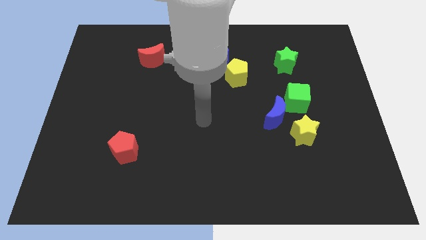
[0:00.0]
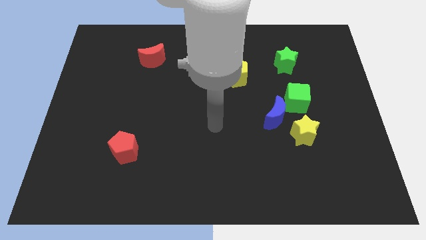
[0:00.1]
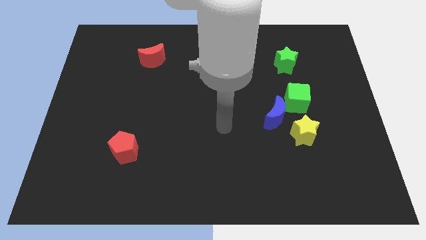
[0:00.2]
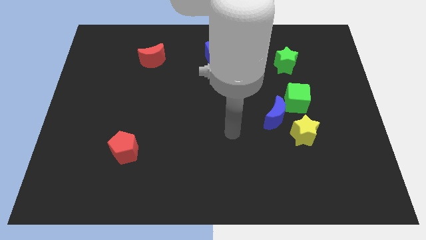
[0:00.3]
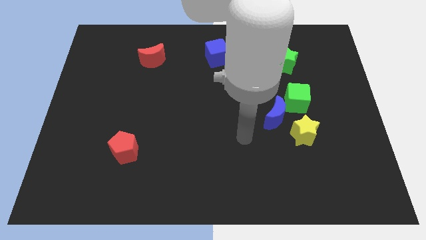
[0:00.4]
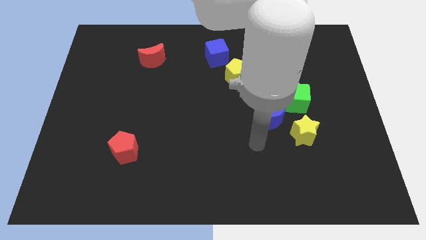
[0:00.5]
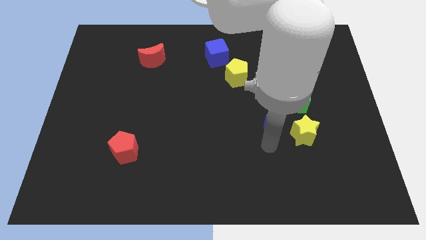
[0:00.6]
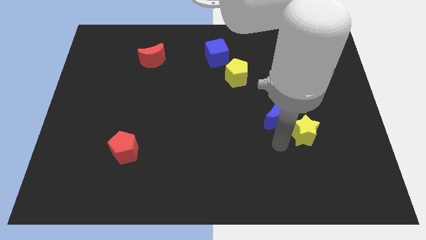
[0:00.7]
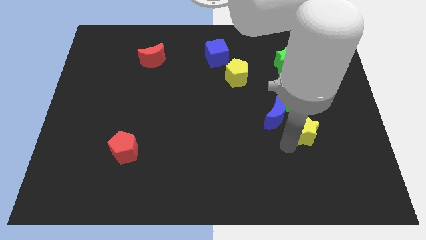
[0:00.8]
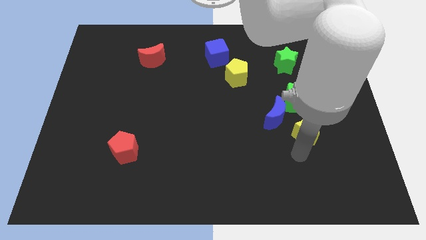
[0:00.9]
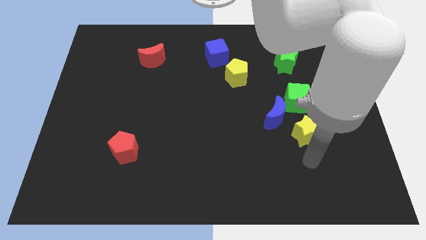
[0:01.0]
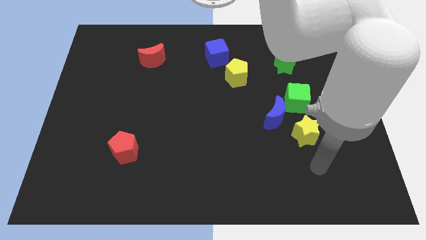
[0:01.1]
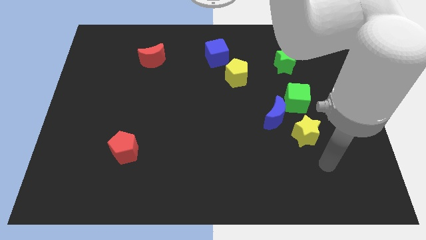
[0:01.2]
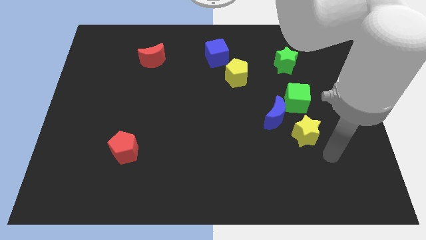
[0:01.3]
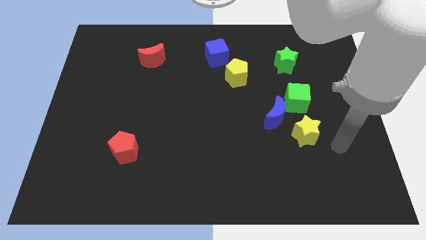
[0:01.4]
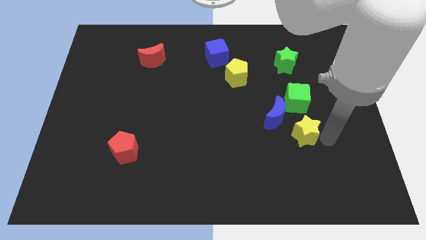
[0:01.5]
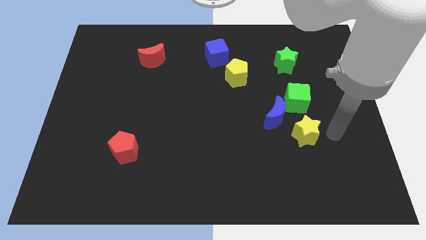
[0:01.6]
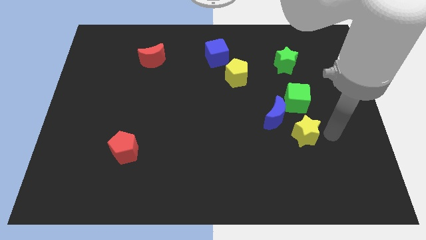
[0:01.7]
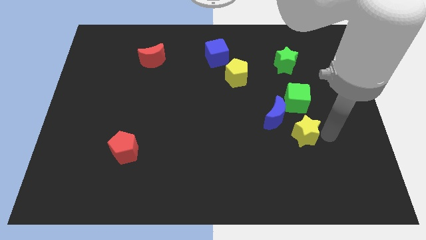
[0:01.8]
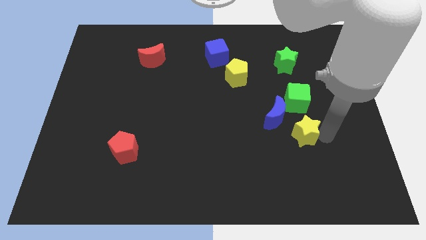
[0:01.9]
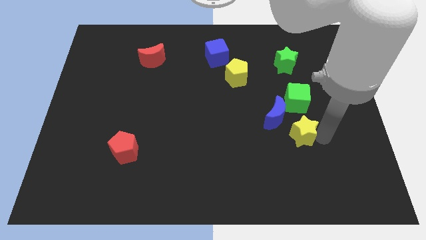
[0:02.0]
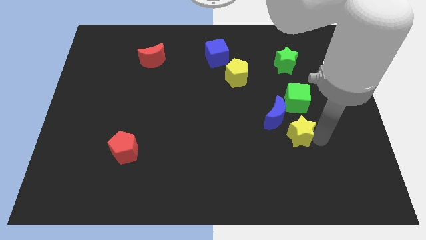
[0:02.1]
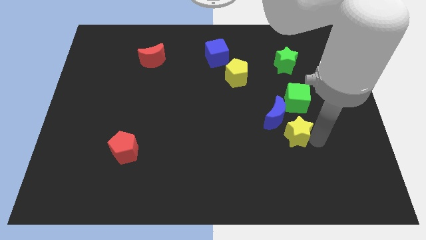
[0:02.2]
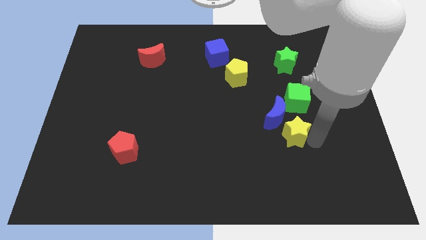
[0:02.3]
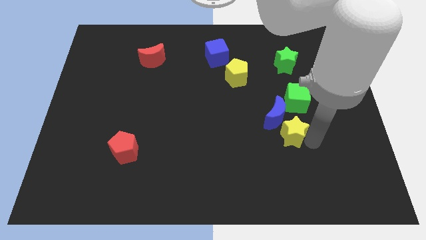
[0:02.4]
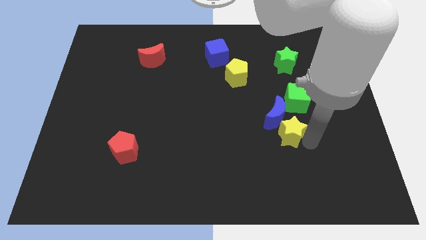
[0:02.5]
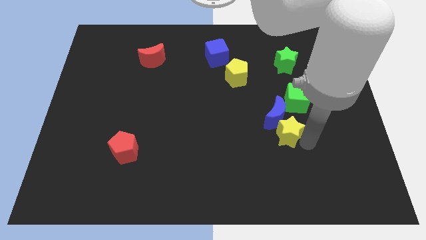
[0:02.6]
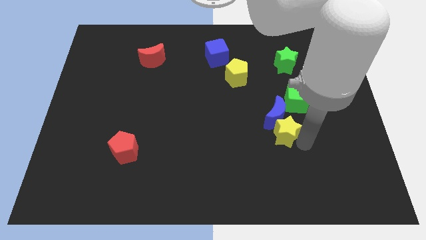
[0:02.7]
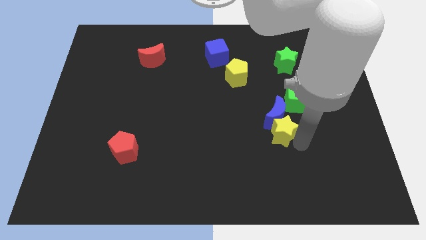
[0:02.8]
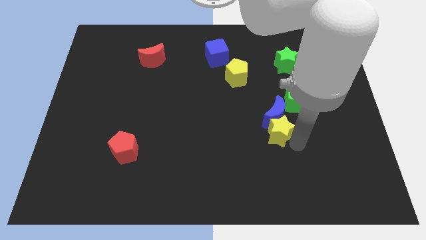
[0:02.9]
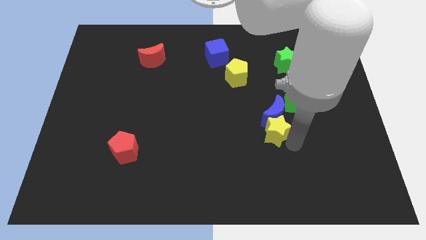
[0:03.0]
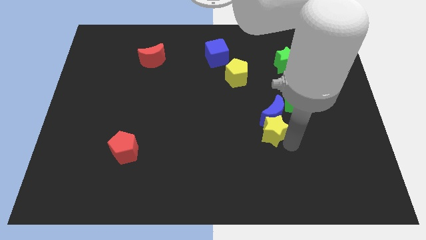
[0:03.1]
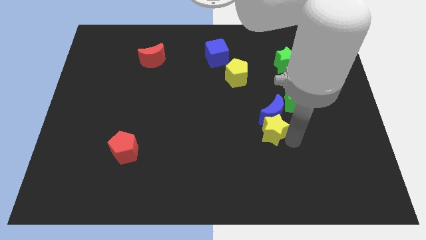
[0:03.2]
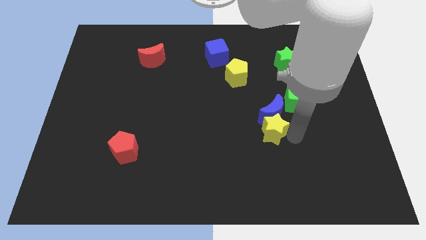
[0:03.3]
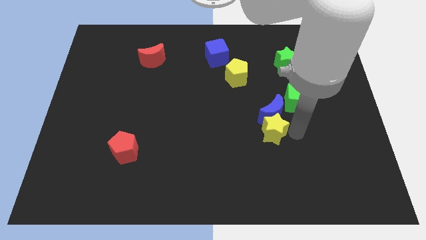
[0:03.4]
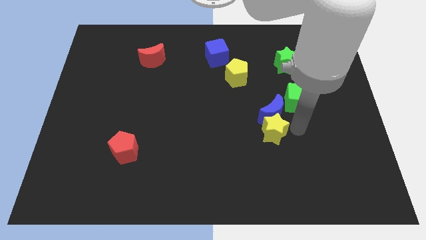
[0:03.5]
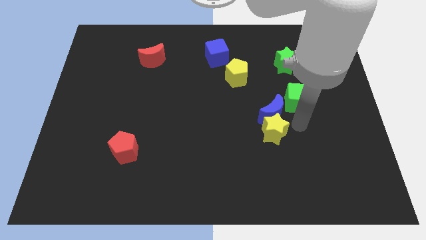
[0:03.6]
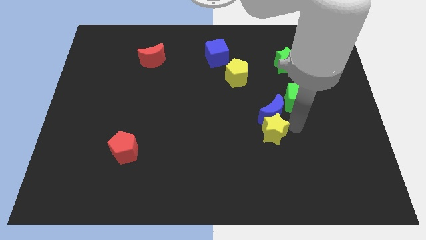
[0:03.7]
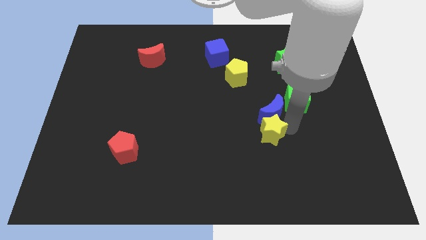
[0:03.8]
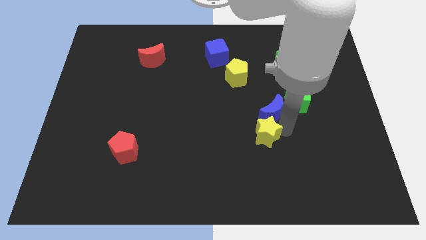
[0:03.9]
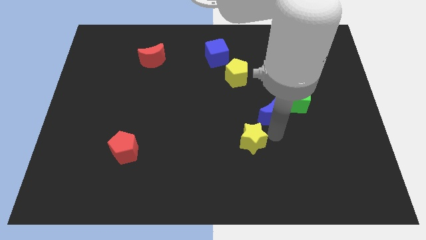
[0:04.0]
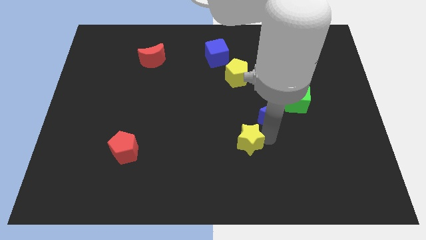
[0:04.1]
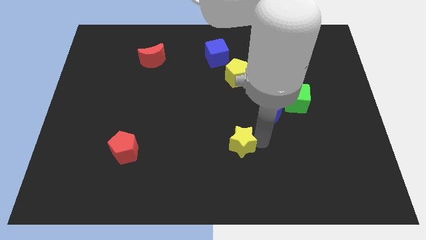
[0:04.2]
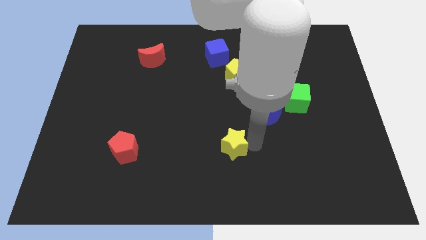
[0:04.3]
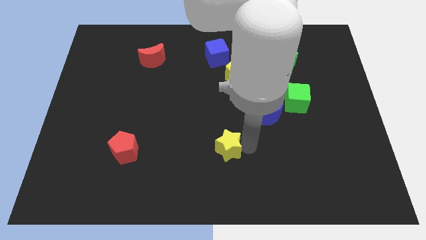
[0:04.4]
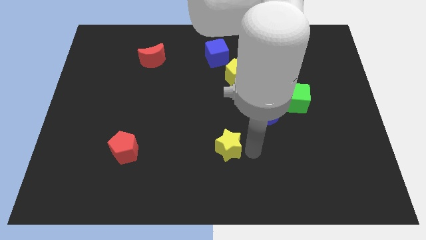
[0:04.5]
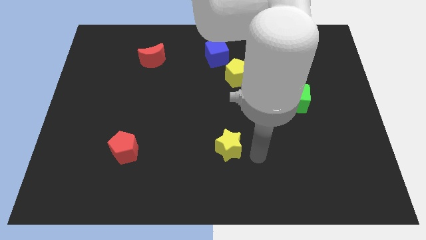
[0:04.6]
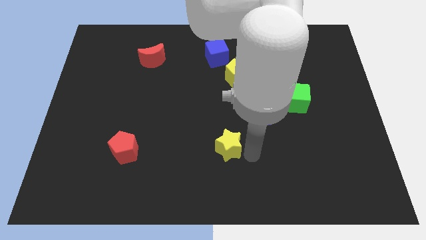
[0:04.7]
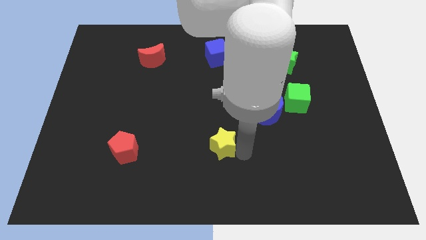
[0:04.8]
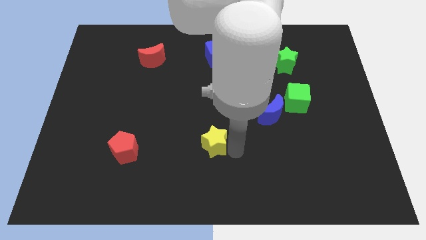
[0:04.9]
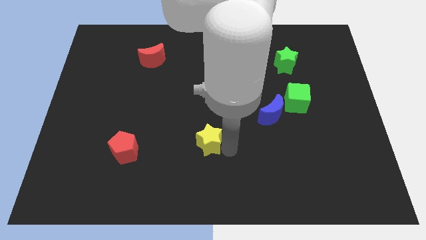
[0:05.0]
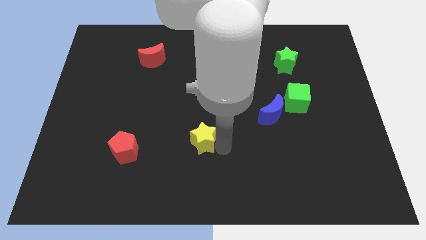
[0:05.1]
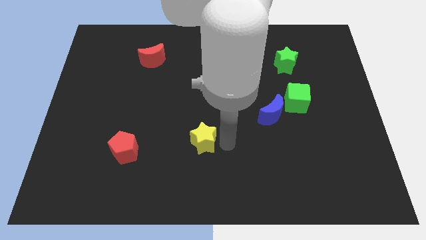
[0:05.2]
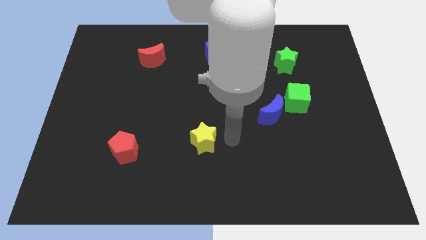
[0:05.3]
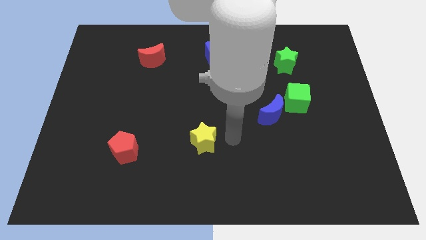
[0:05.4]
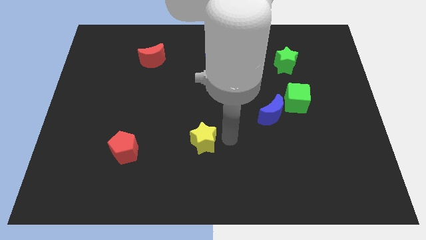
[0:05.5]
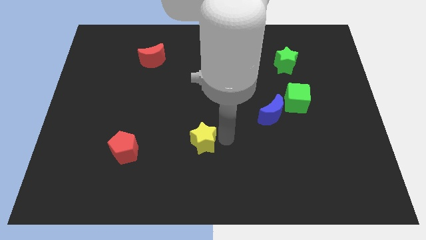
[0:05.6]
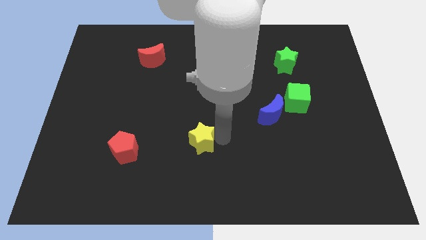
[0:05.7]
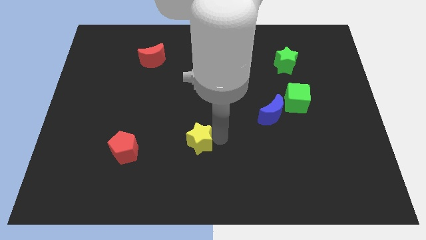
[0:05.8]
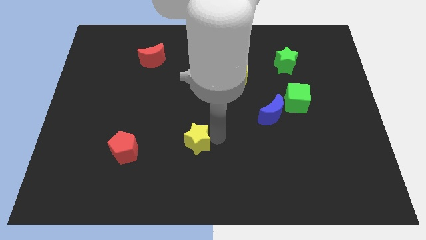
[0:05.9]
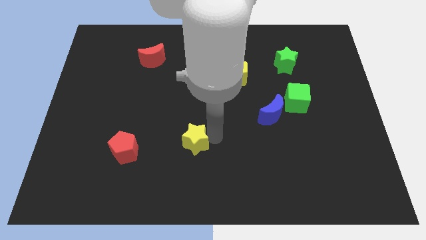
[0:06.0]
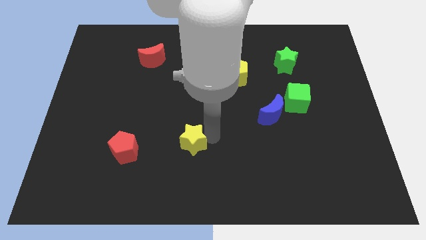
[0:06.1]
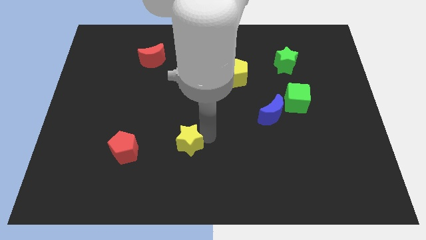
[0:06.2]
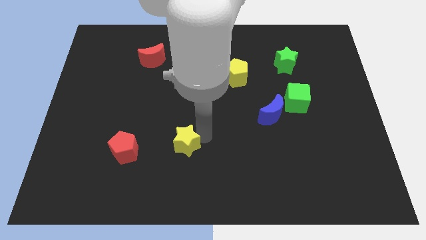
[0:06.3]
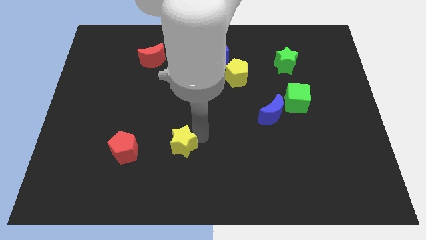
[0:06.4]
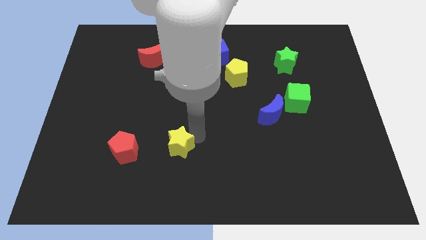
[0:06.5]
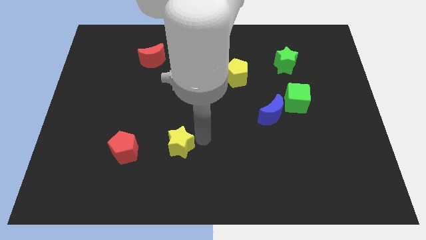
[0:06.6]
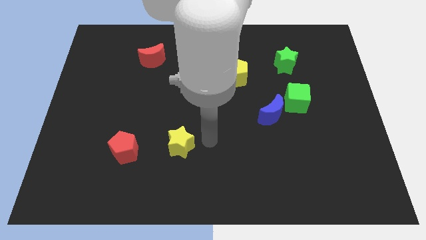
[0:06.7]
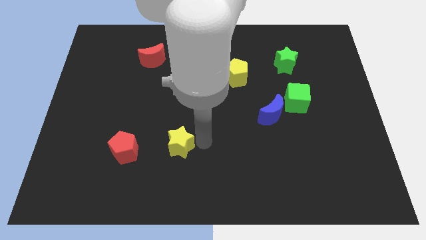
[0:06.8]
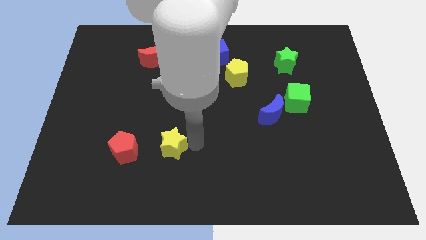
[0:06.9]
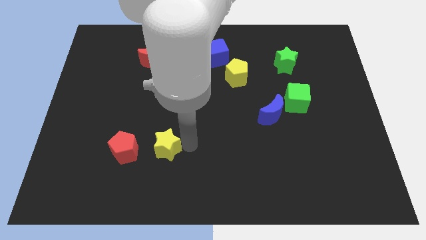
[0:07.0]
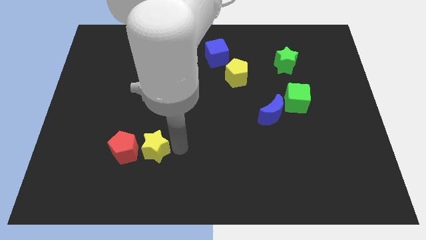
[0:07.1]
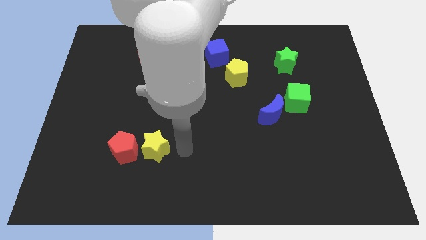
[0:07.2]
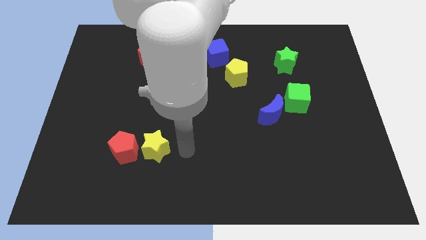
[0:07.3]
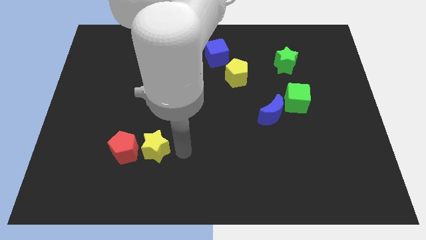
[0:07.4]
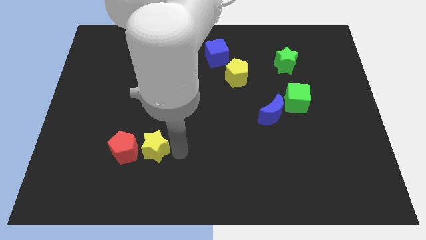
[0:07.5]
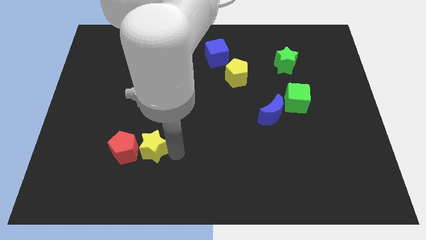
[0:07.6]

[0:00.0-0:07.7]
slide the yellow star close to the red pentagon
